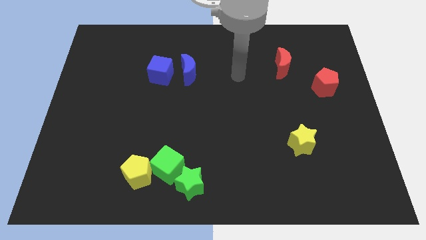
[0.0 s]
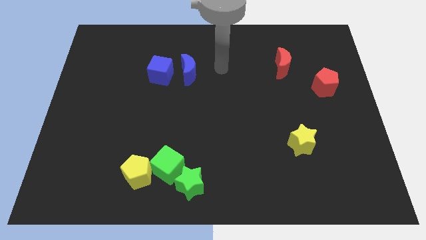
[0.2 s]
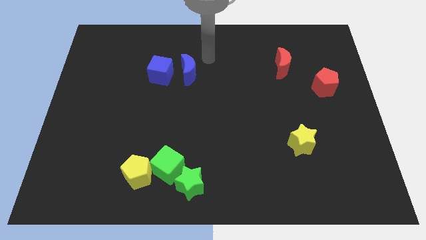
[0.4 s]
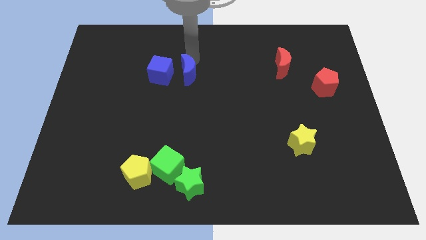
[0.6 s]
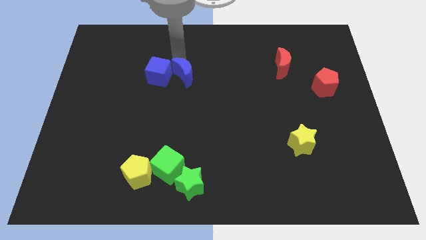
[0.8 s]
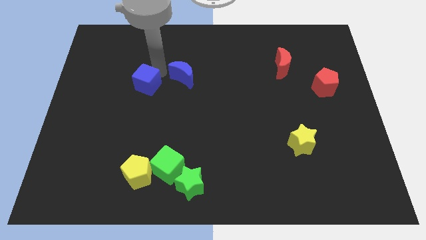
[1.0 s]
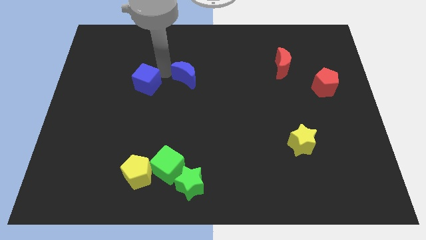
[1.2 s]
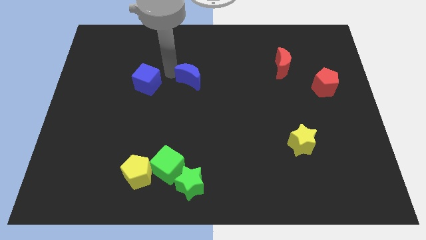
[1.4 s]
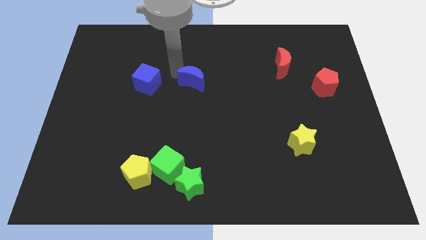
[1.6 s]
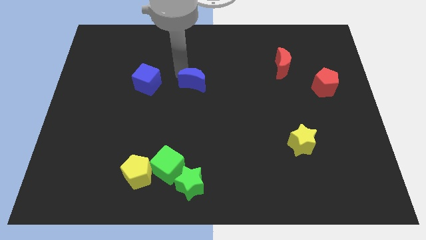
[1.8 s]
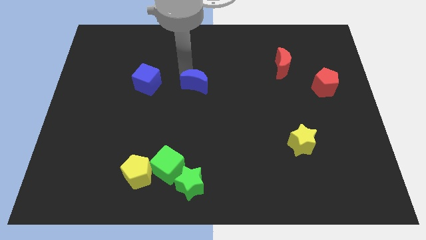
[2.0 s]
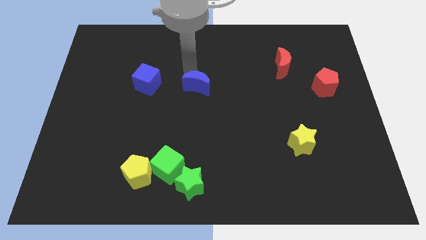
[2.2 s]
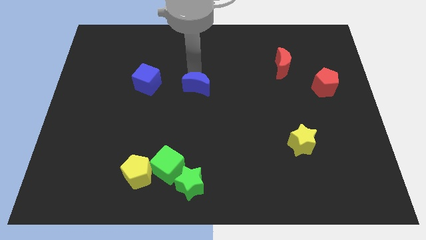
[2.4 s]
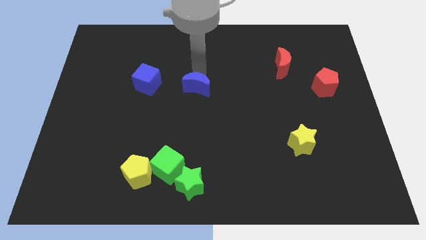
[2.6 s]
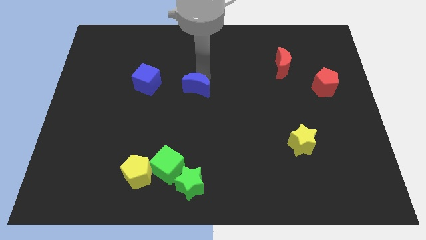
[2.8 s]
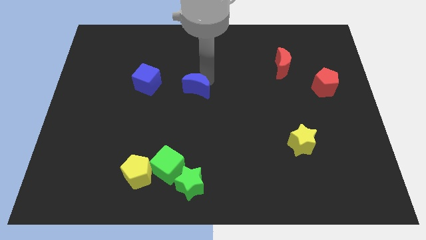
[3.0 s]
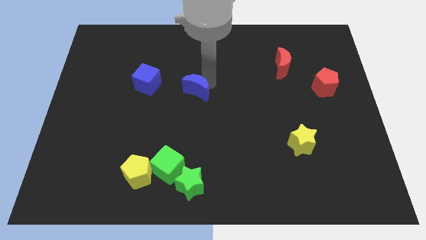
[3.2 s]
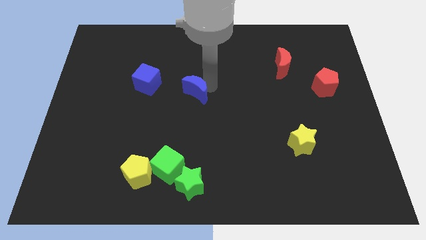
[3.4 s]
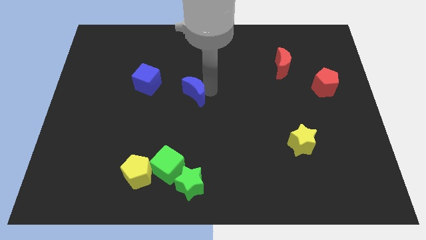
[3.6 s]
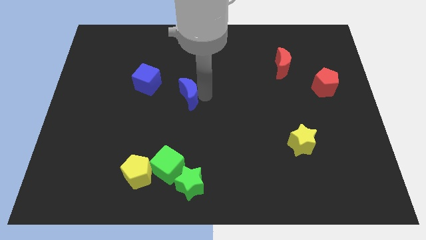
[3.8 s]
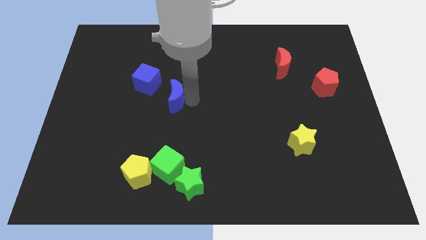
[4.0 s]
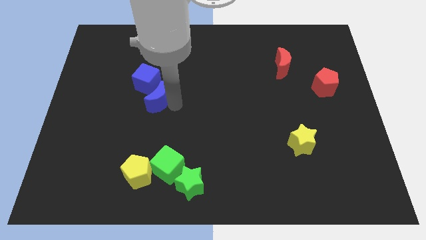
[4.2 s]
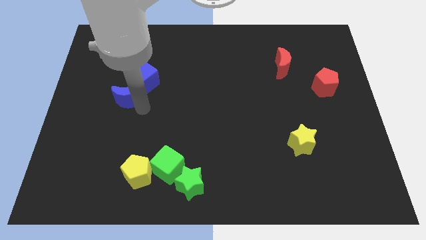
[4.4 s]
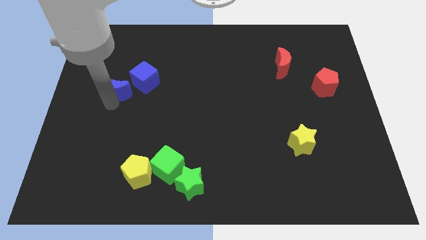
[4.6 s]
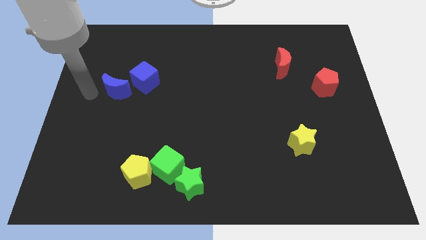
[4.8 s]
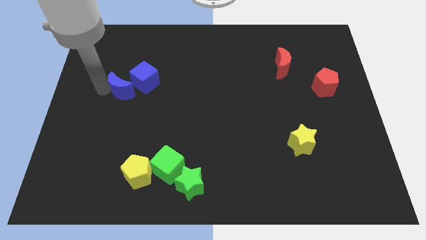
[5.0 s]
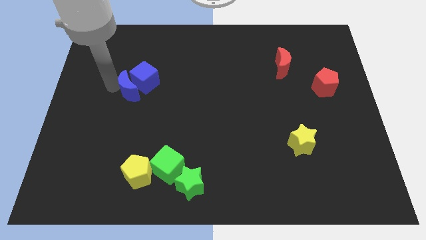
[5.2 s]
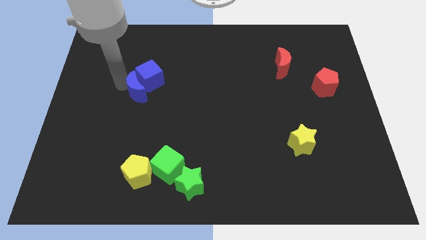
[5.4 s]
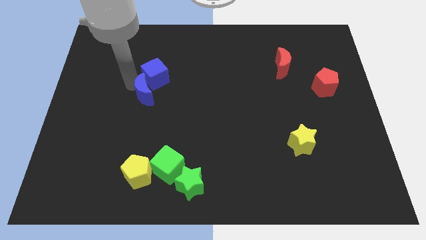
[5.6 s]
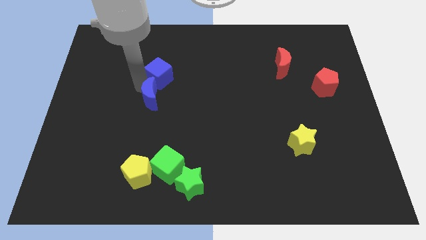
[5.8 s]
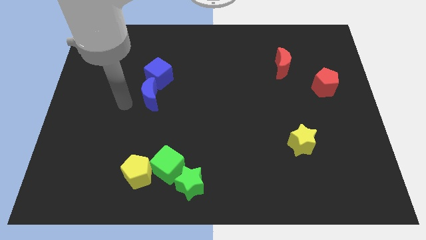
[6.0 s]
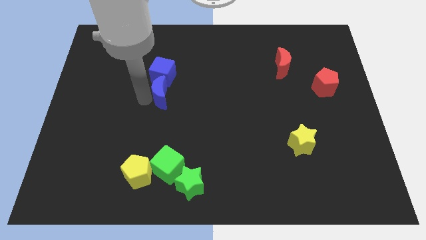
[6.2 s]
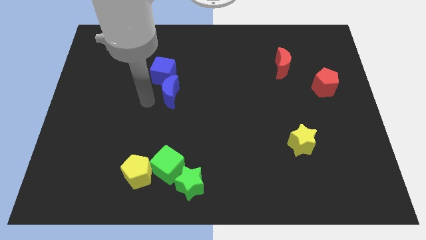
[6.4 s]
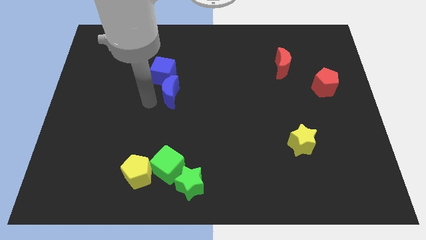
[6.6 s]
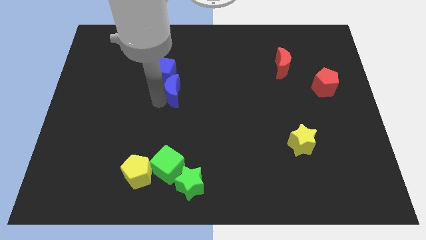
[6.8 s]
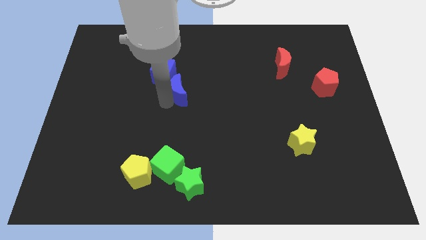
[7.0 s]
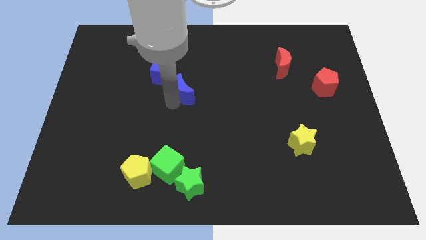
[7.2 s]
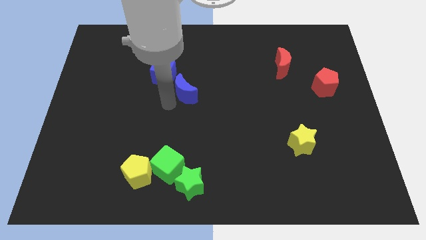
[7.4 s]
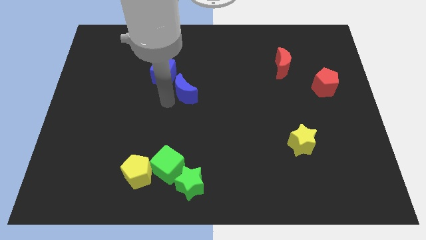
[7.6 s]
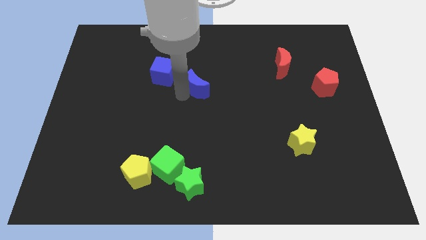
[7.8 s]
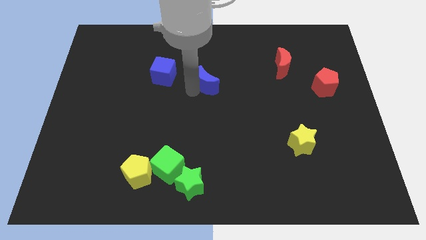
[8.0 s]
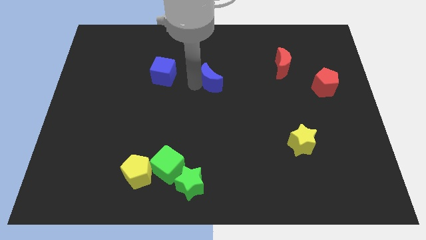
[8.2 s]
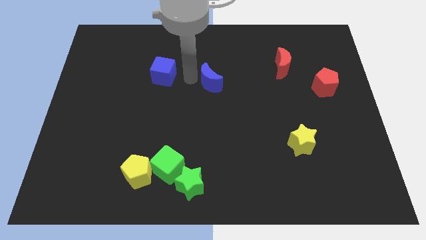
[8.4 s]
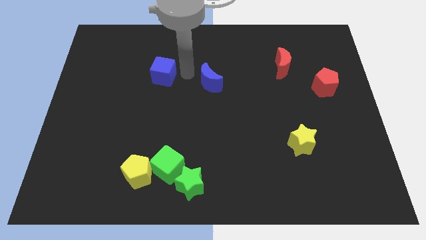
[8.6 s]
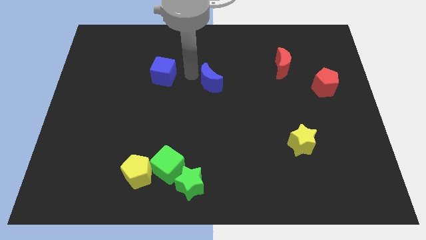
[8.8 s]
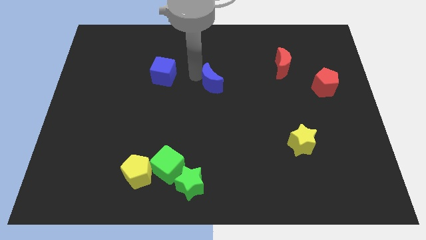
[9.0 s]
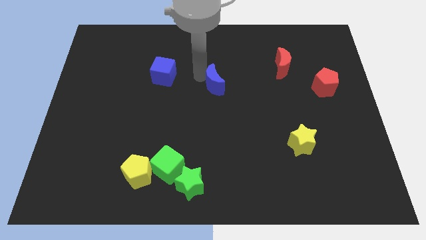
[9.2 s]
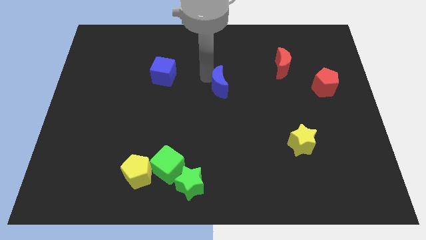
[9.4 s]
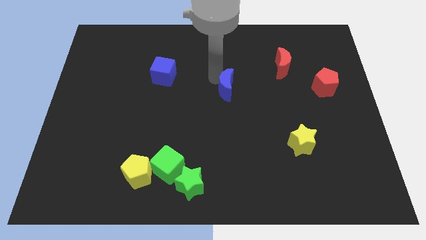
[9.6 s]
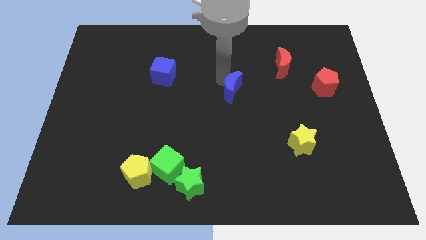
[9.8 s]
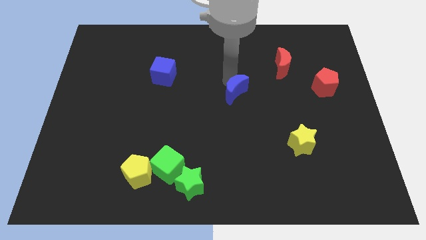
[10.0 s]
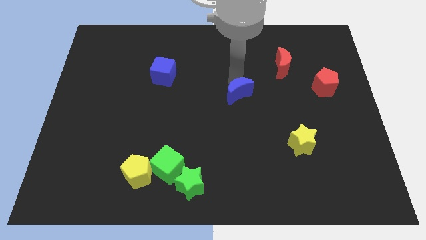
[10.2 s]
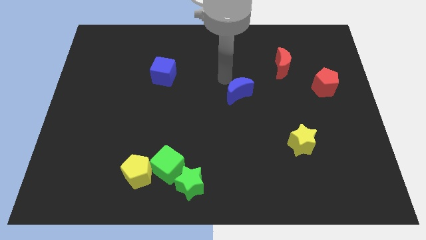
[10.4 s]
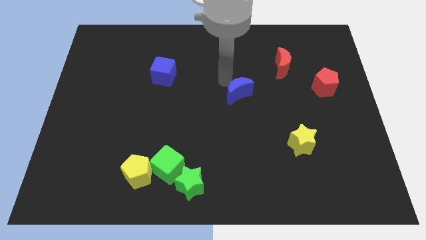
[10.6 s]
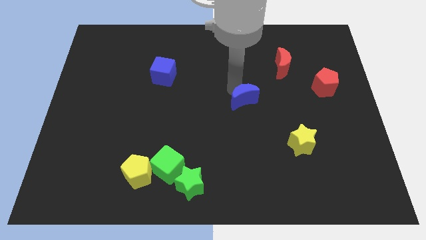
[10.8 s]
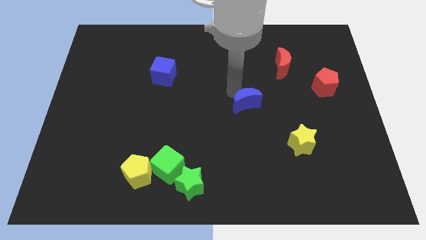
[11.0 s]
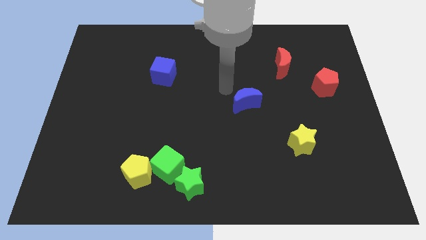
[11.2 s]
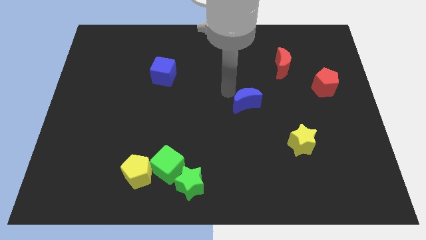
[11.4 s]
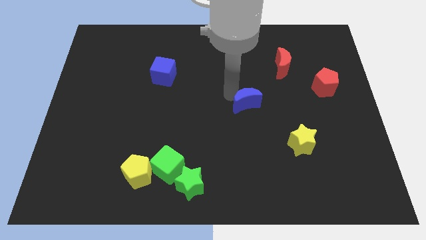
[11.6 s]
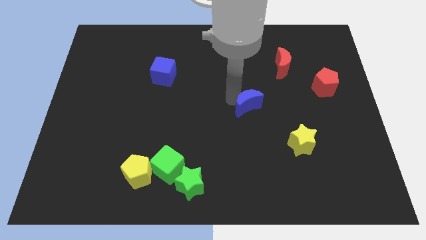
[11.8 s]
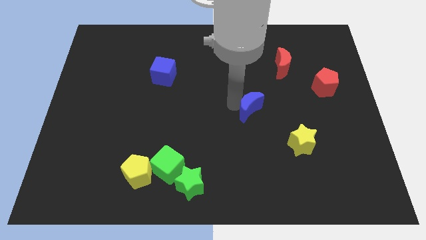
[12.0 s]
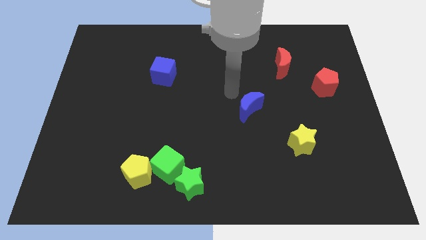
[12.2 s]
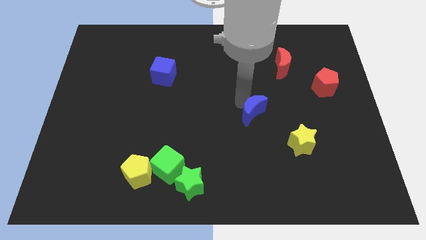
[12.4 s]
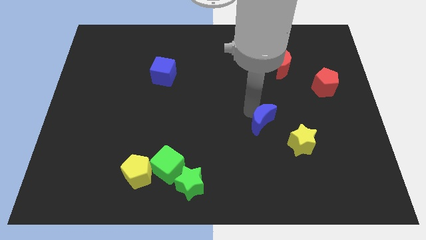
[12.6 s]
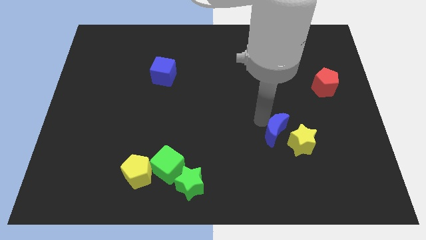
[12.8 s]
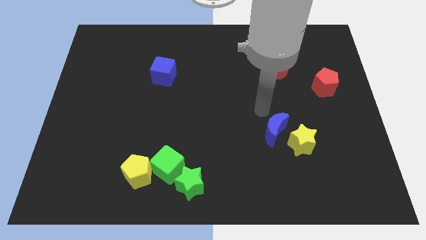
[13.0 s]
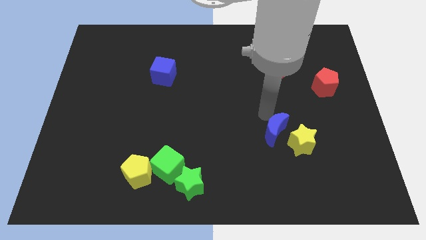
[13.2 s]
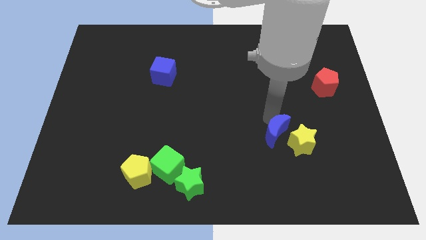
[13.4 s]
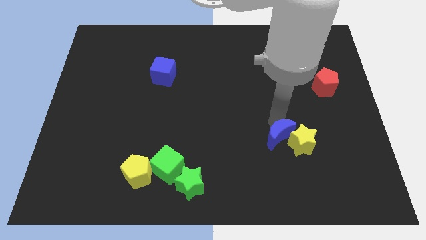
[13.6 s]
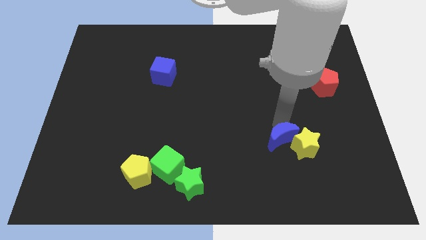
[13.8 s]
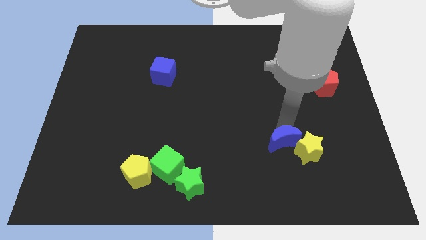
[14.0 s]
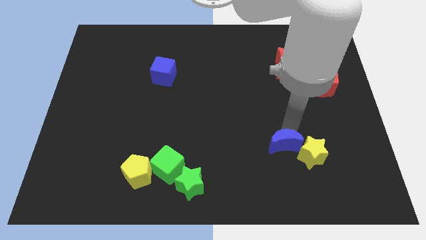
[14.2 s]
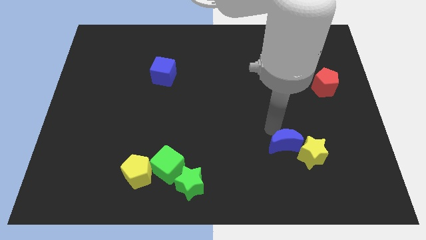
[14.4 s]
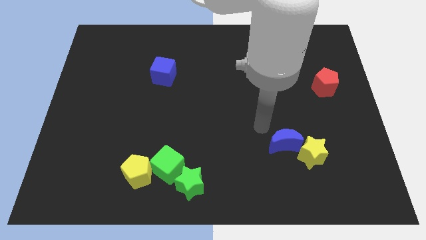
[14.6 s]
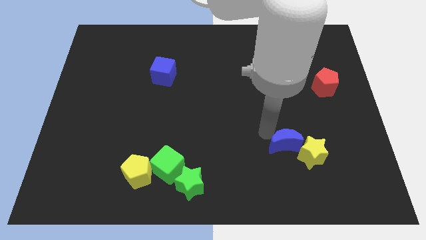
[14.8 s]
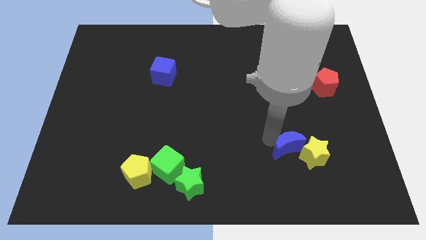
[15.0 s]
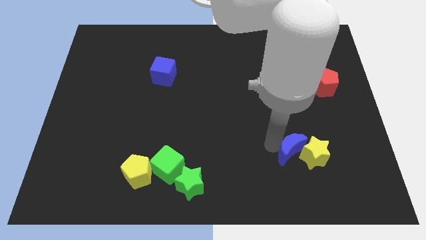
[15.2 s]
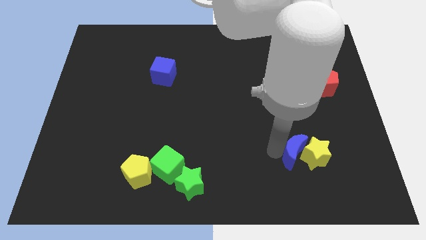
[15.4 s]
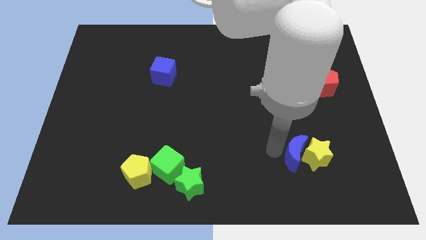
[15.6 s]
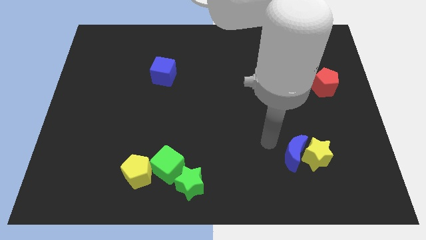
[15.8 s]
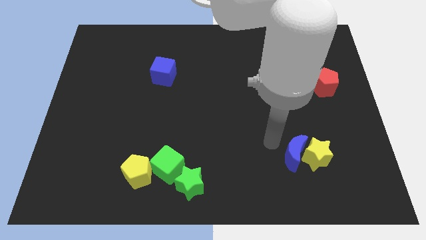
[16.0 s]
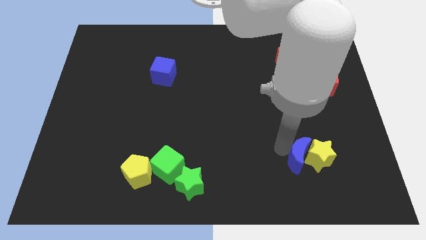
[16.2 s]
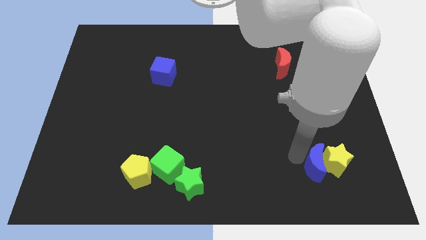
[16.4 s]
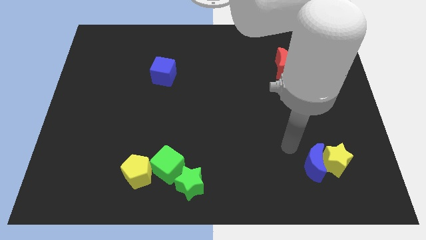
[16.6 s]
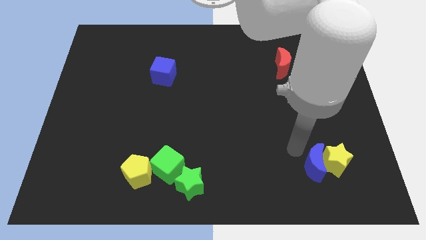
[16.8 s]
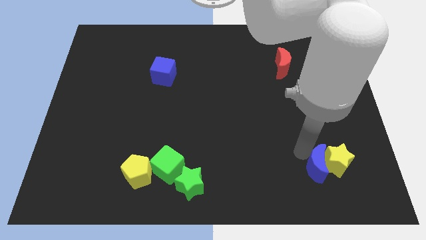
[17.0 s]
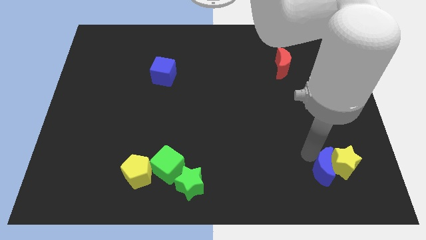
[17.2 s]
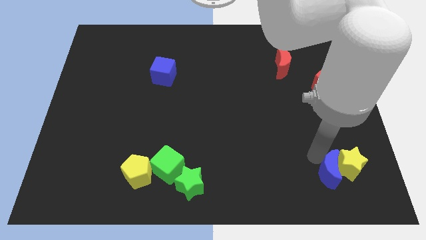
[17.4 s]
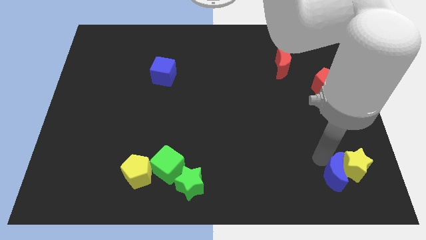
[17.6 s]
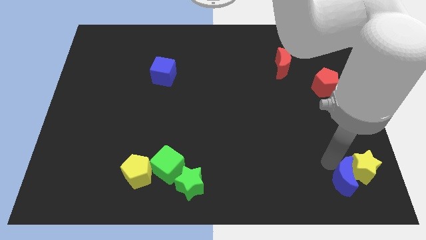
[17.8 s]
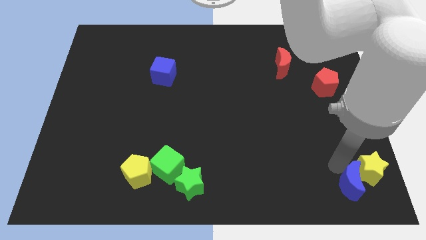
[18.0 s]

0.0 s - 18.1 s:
move the blue moon to the lower right corner
